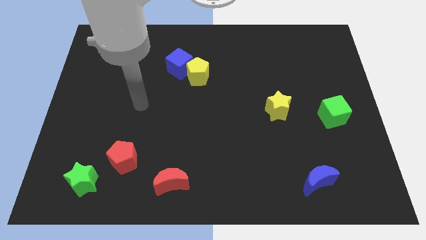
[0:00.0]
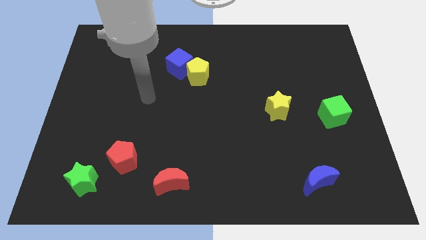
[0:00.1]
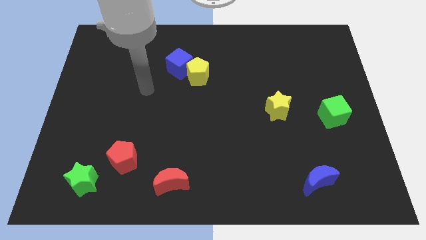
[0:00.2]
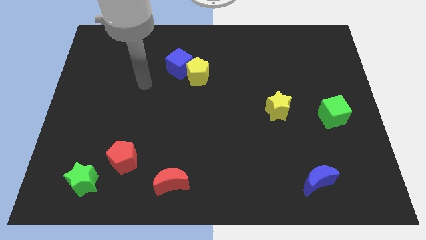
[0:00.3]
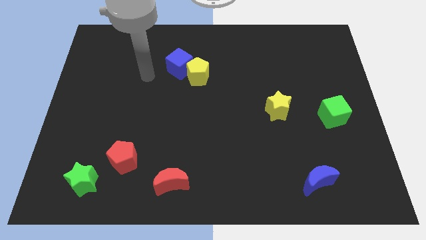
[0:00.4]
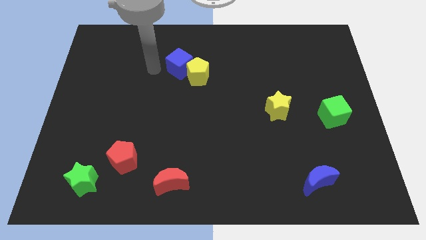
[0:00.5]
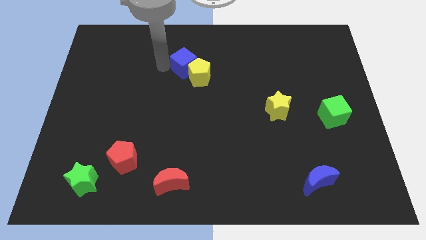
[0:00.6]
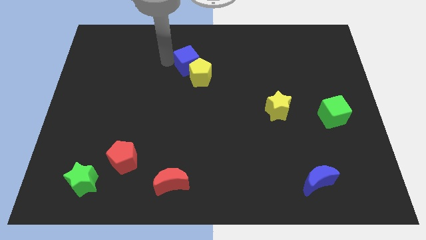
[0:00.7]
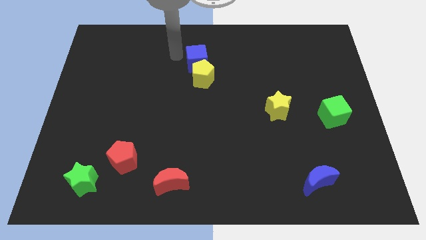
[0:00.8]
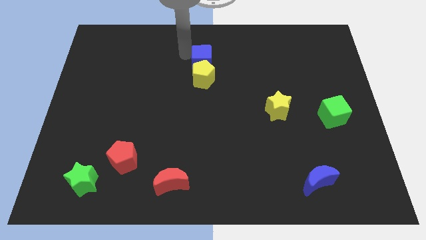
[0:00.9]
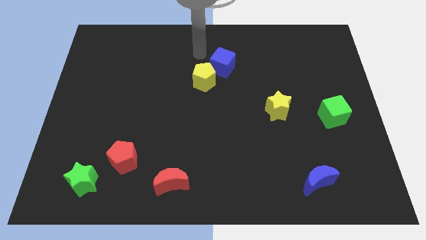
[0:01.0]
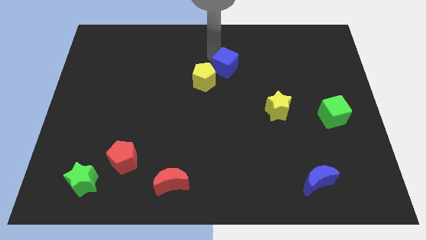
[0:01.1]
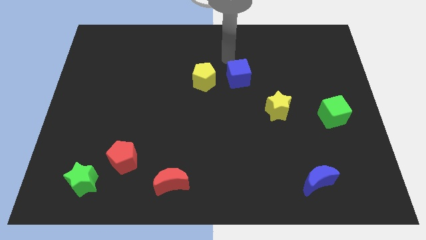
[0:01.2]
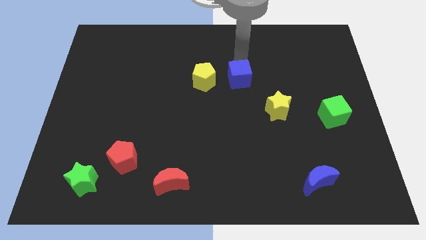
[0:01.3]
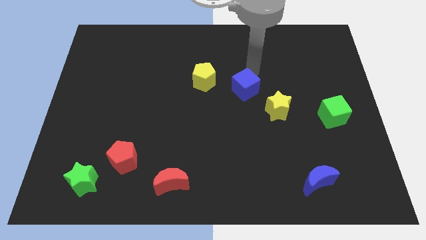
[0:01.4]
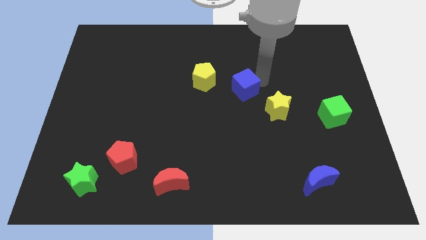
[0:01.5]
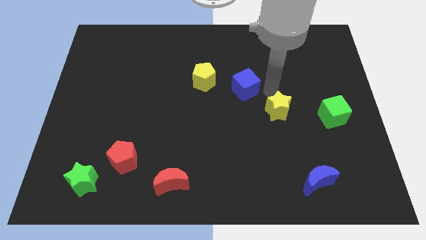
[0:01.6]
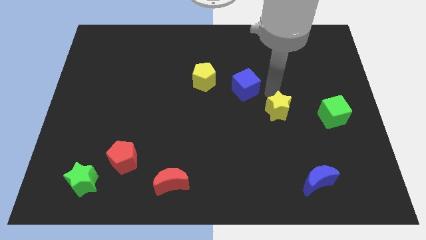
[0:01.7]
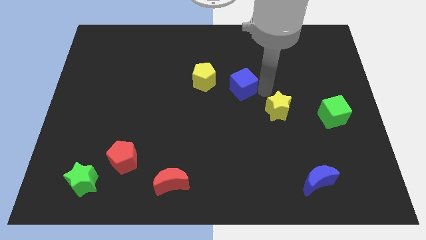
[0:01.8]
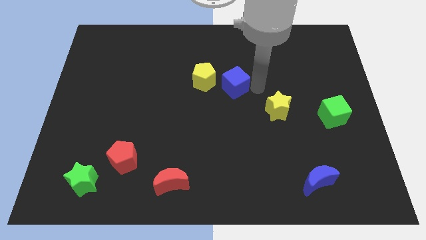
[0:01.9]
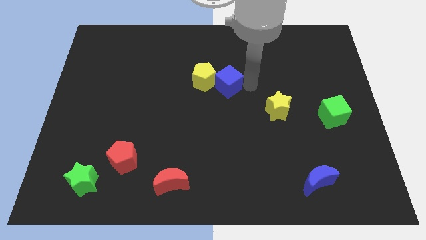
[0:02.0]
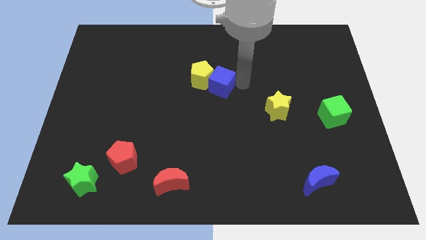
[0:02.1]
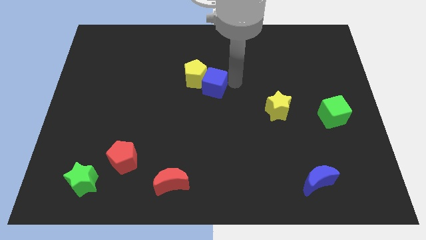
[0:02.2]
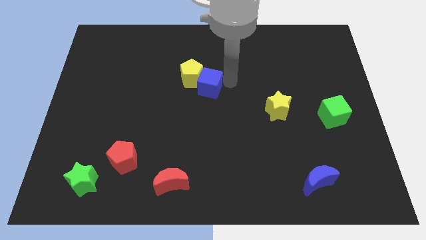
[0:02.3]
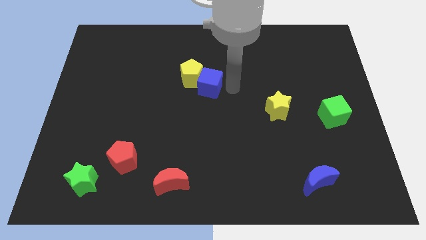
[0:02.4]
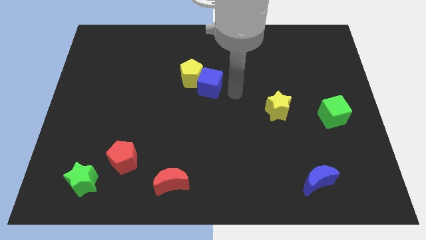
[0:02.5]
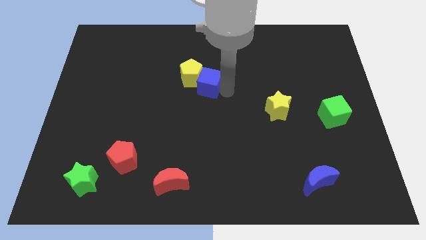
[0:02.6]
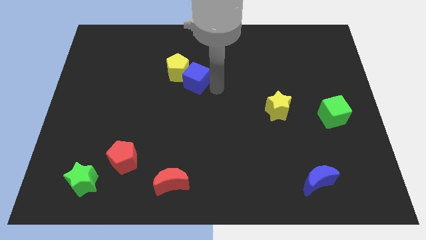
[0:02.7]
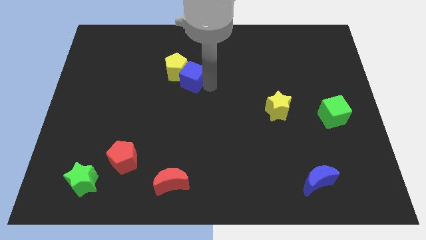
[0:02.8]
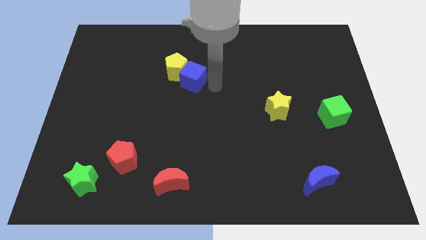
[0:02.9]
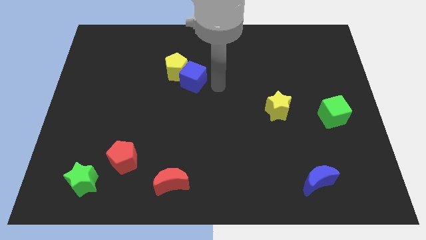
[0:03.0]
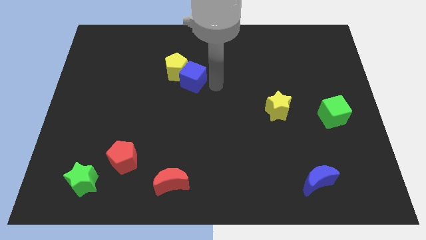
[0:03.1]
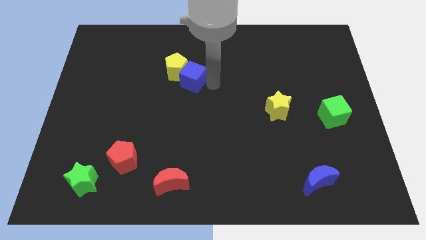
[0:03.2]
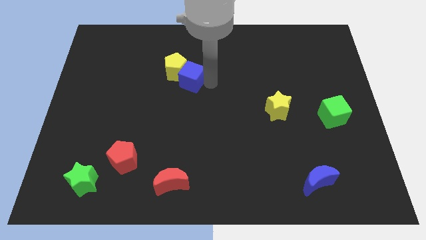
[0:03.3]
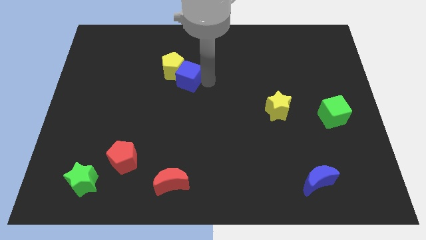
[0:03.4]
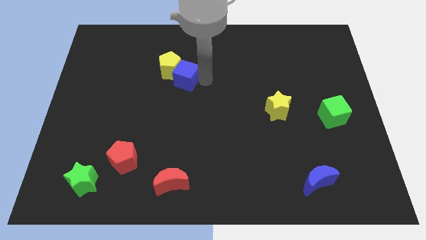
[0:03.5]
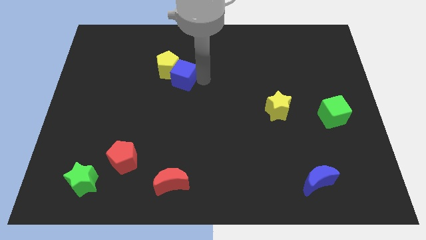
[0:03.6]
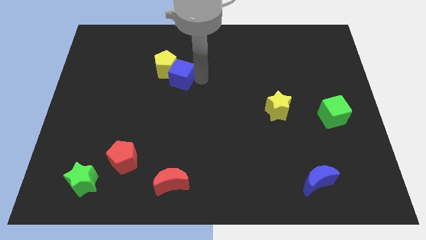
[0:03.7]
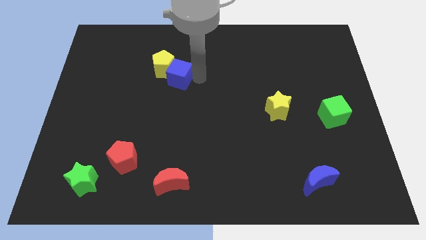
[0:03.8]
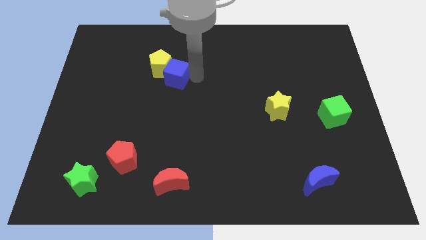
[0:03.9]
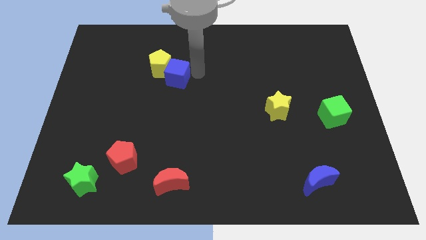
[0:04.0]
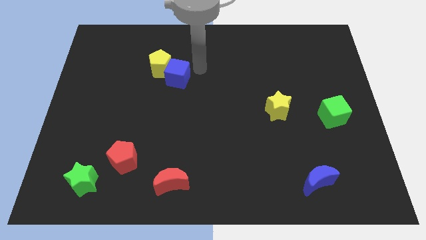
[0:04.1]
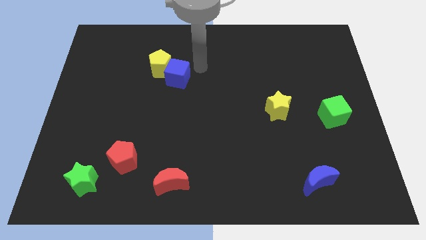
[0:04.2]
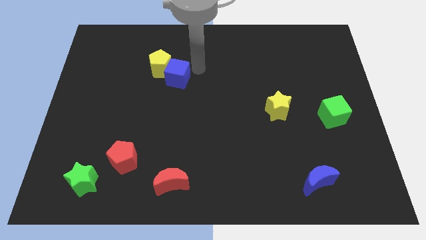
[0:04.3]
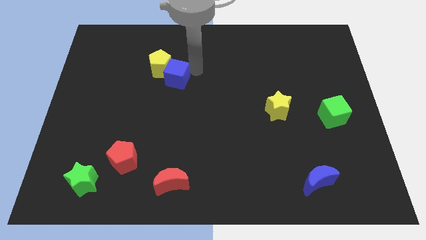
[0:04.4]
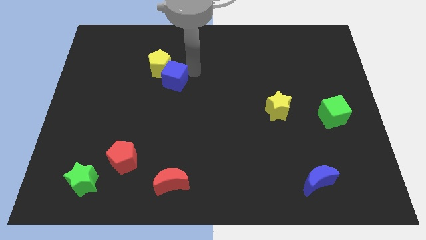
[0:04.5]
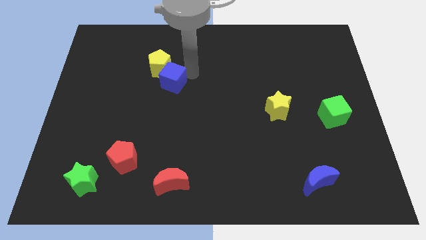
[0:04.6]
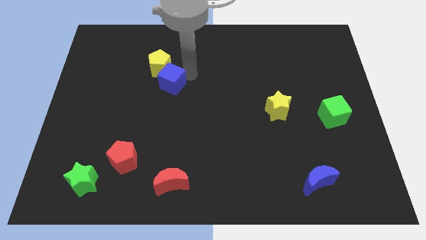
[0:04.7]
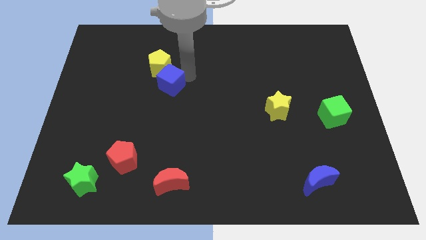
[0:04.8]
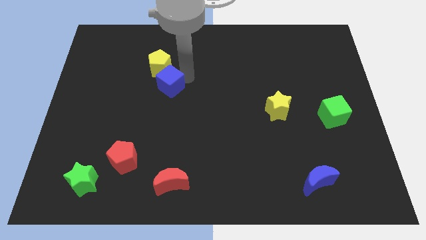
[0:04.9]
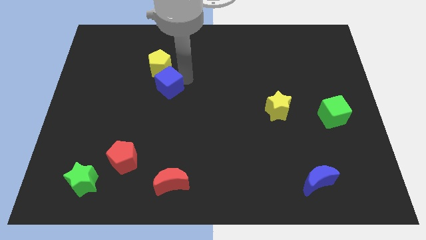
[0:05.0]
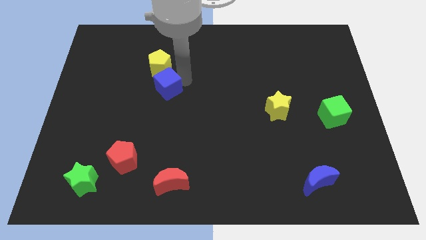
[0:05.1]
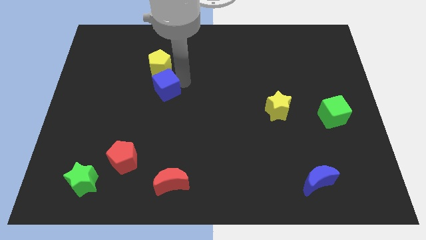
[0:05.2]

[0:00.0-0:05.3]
move the blue cube downwards and then to the left slightly

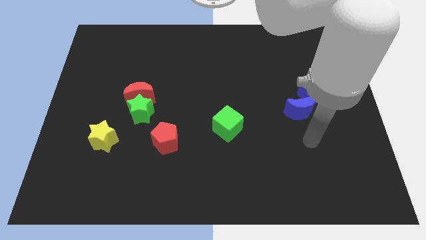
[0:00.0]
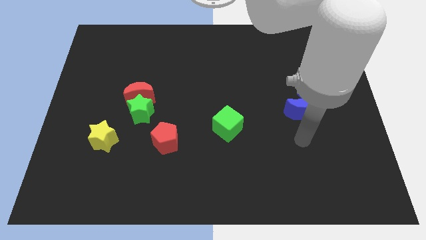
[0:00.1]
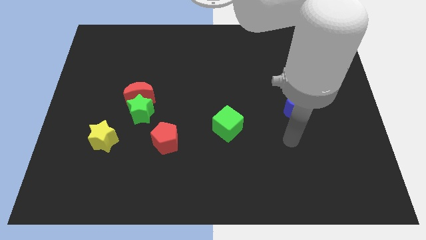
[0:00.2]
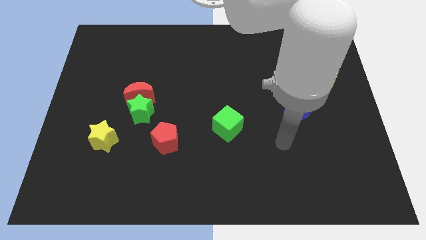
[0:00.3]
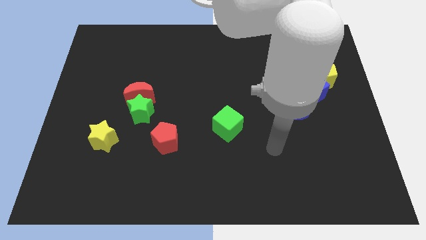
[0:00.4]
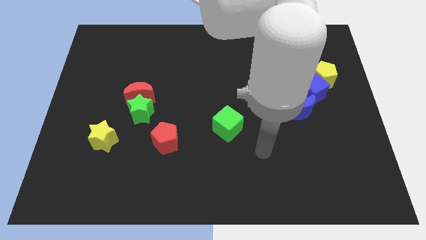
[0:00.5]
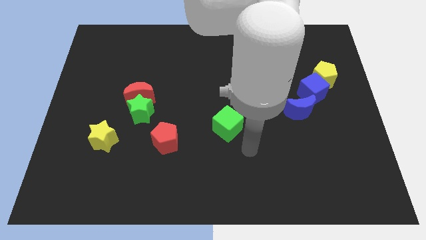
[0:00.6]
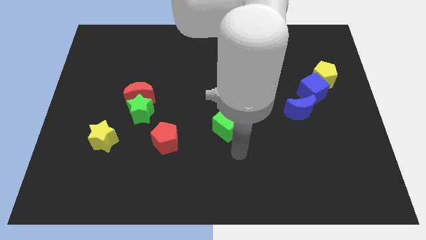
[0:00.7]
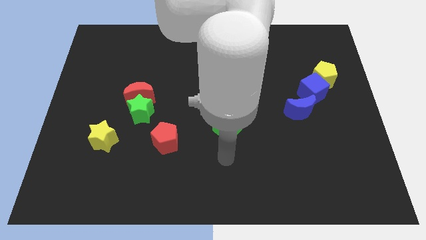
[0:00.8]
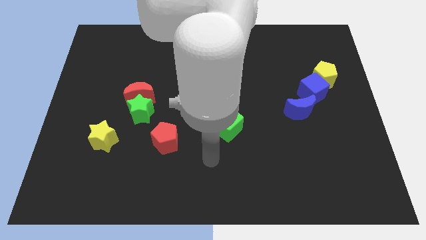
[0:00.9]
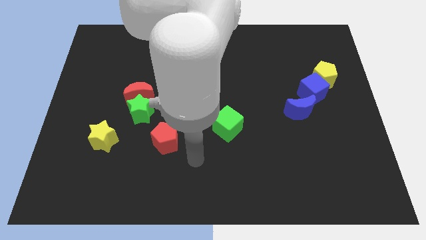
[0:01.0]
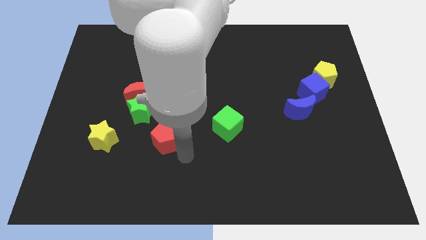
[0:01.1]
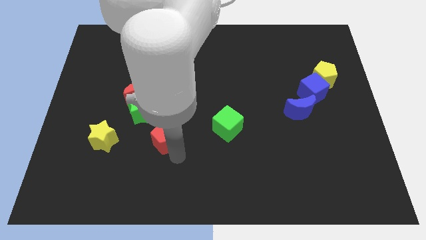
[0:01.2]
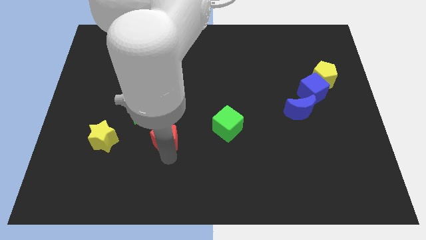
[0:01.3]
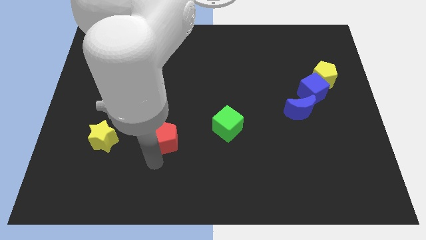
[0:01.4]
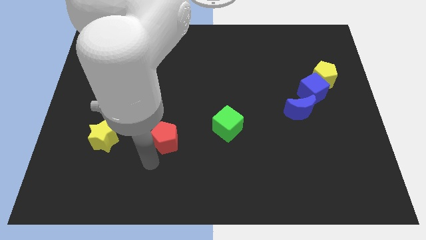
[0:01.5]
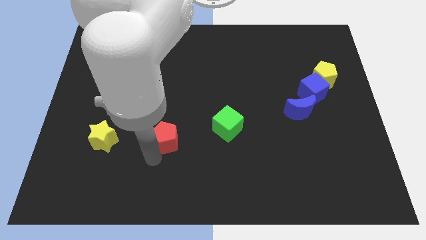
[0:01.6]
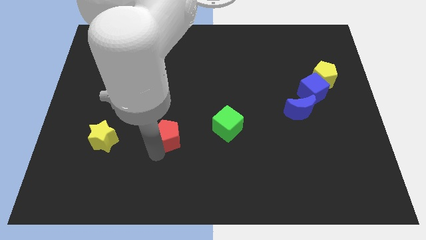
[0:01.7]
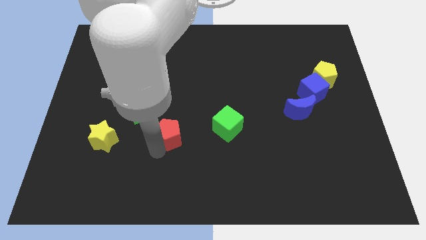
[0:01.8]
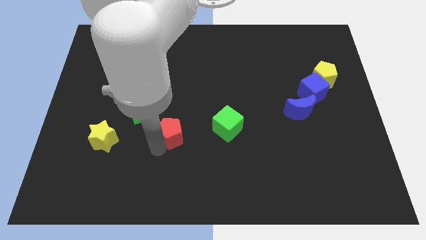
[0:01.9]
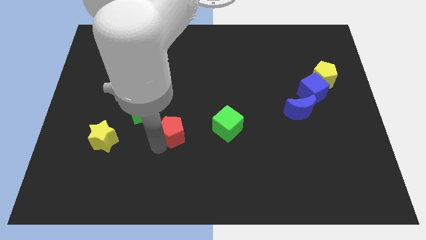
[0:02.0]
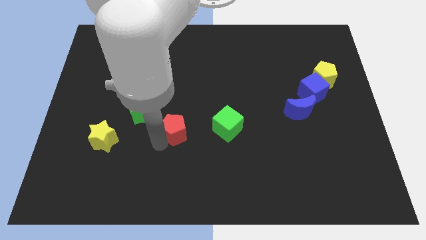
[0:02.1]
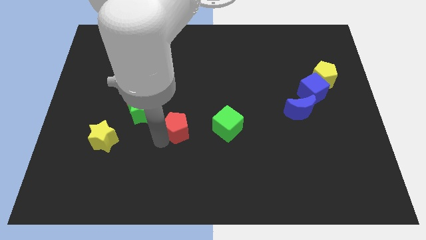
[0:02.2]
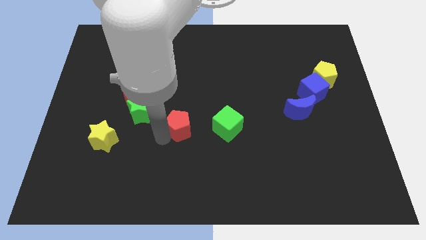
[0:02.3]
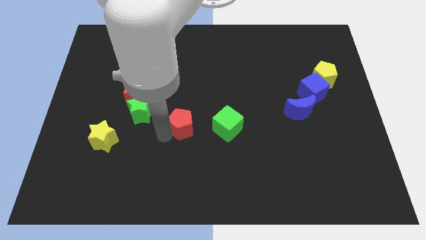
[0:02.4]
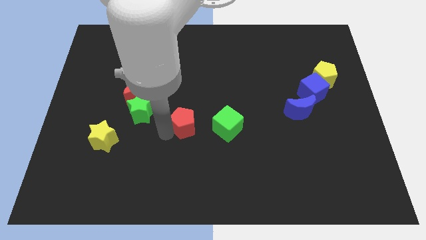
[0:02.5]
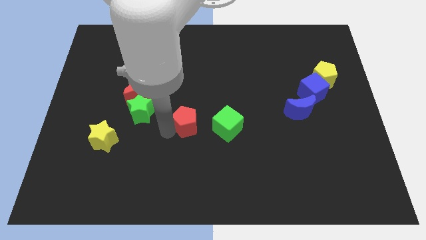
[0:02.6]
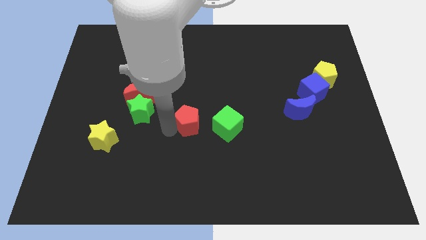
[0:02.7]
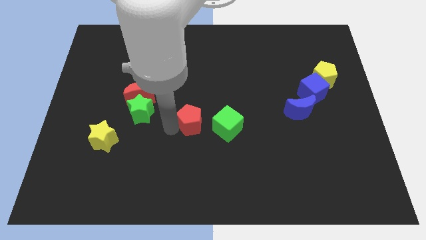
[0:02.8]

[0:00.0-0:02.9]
slightly slide the red pentagon up and then right
